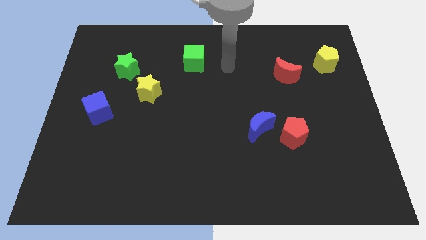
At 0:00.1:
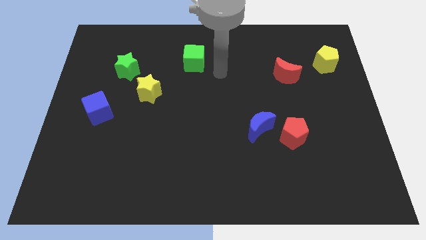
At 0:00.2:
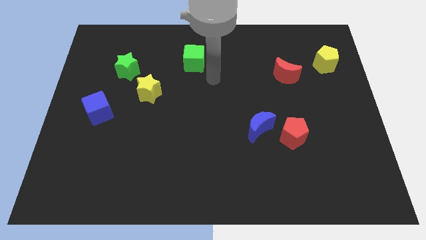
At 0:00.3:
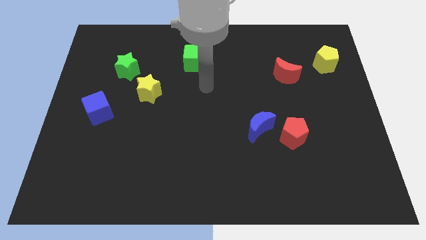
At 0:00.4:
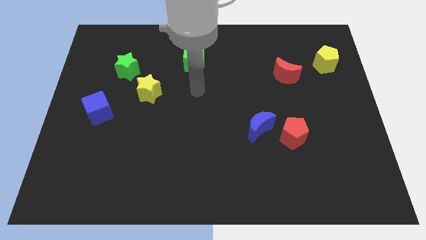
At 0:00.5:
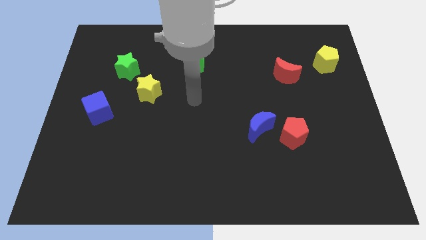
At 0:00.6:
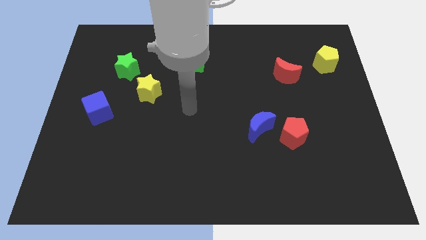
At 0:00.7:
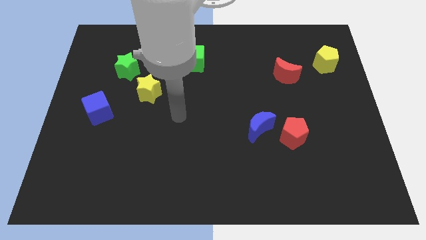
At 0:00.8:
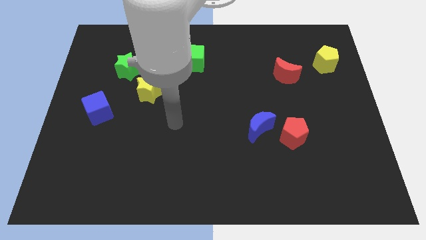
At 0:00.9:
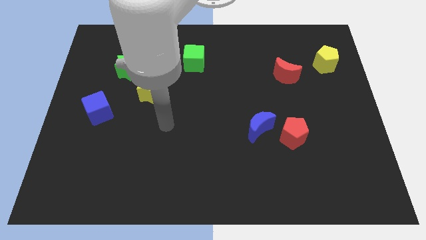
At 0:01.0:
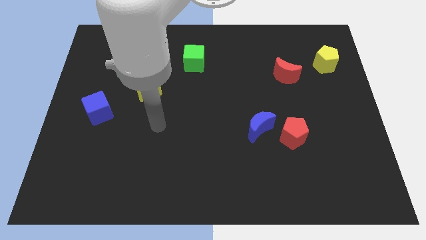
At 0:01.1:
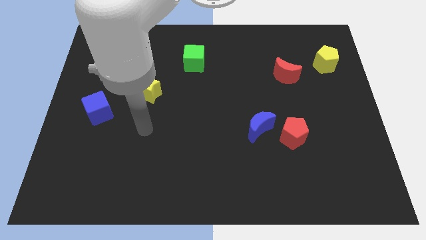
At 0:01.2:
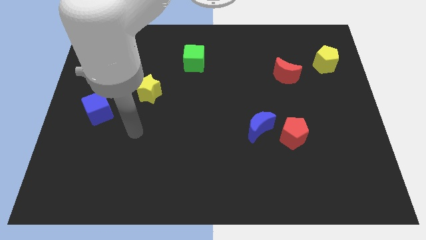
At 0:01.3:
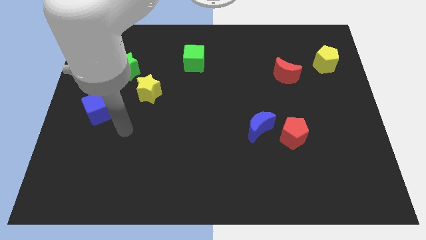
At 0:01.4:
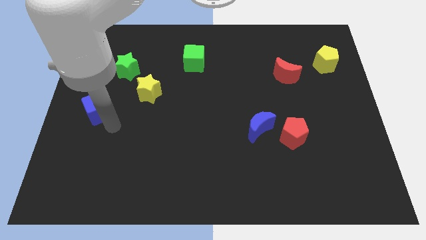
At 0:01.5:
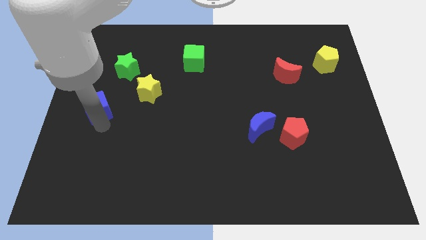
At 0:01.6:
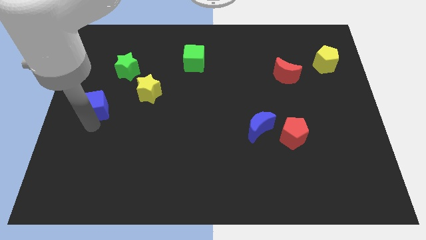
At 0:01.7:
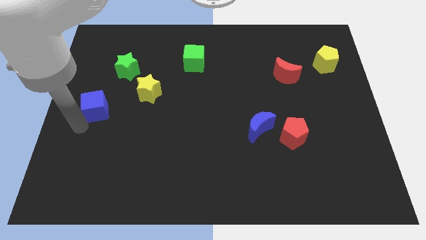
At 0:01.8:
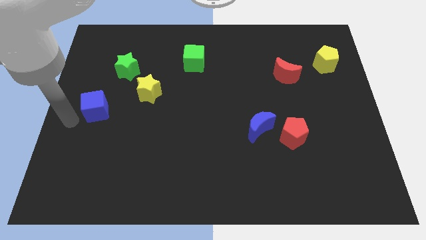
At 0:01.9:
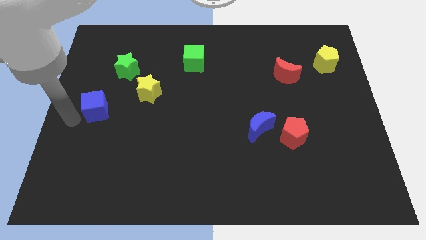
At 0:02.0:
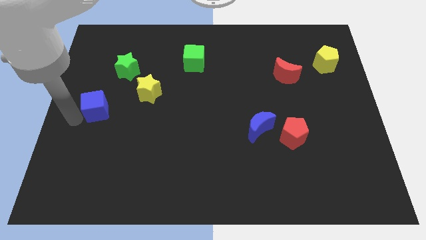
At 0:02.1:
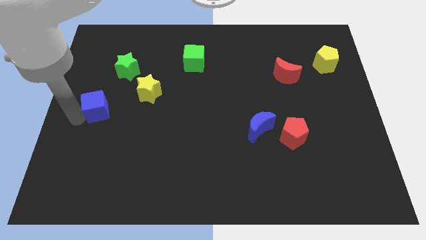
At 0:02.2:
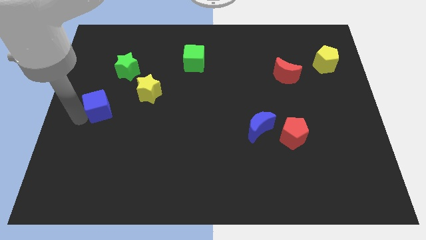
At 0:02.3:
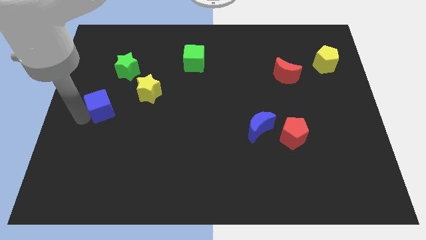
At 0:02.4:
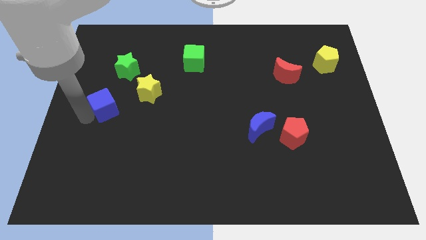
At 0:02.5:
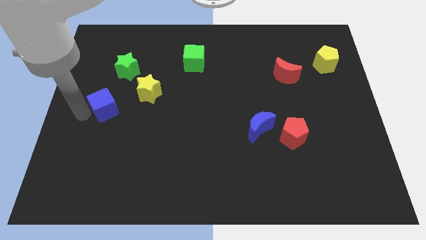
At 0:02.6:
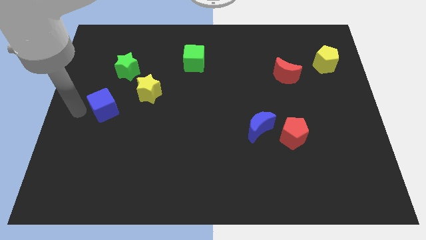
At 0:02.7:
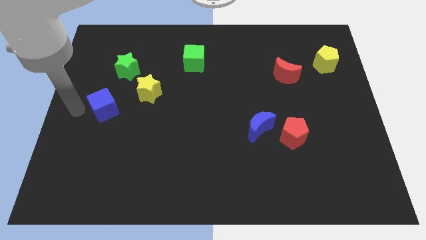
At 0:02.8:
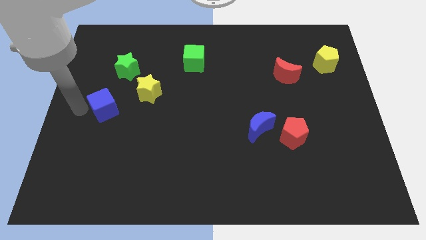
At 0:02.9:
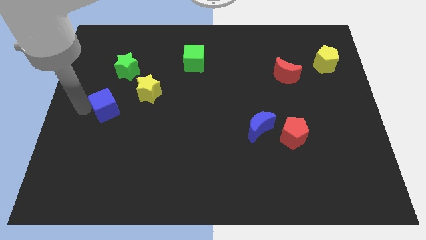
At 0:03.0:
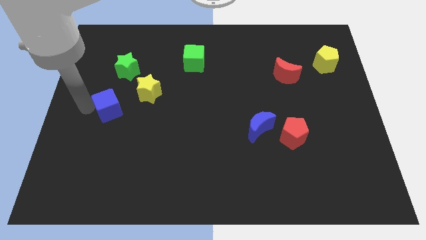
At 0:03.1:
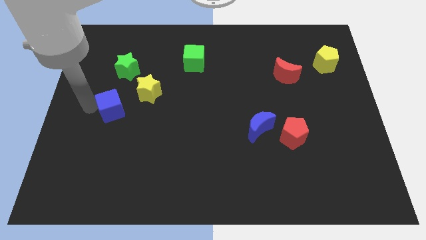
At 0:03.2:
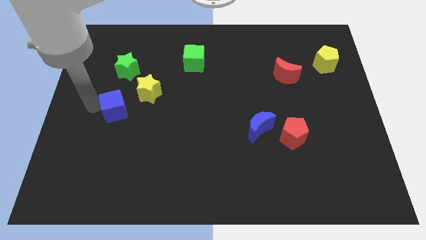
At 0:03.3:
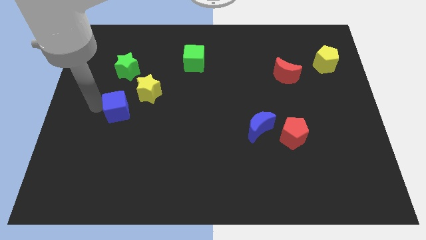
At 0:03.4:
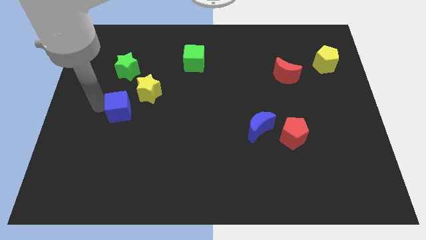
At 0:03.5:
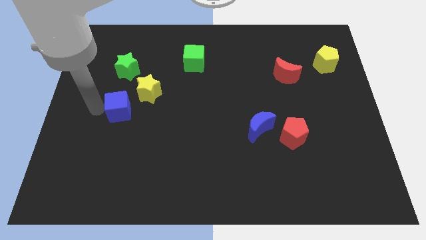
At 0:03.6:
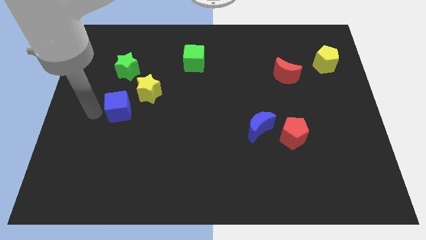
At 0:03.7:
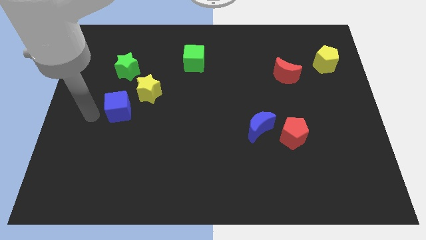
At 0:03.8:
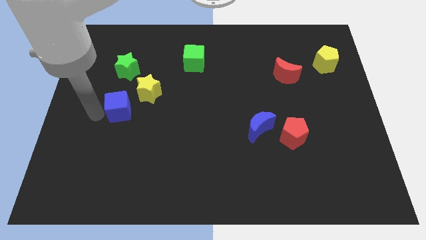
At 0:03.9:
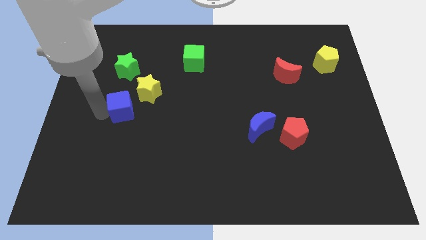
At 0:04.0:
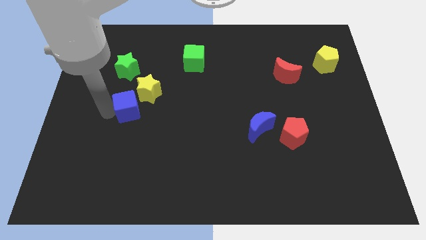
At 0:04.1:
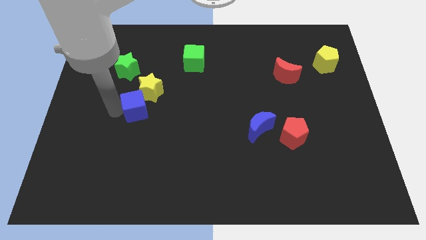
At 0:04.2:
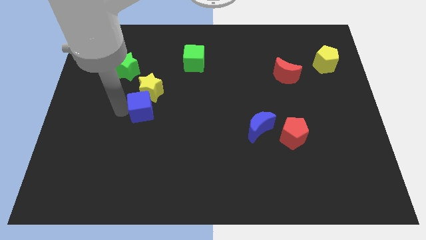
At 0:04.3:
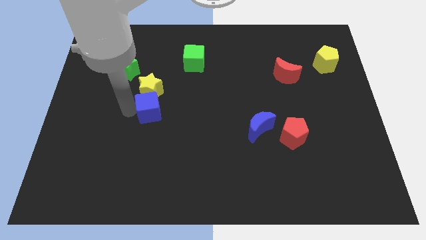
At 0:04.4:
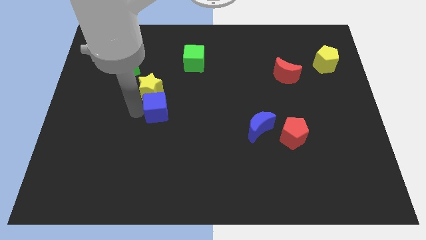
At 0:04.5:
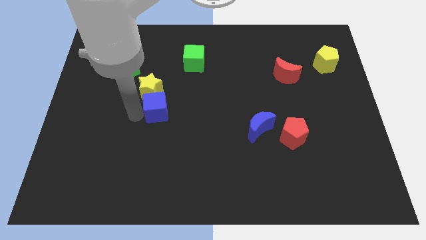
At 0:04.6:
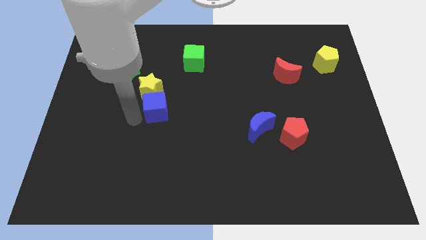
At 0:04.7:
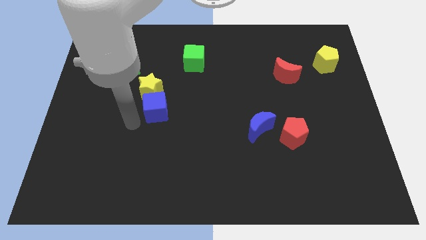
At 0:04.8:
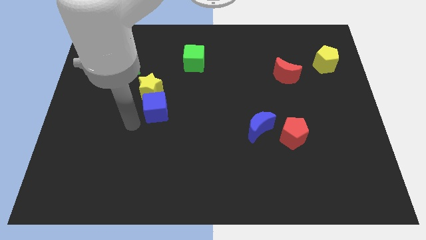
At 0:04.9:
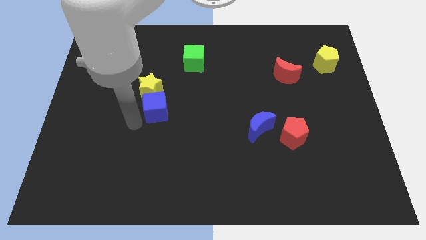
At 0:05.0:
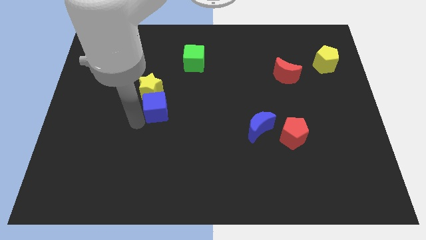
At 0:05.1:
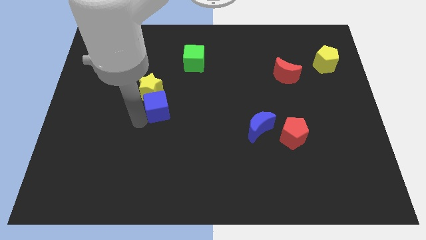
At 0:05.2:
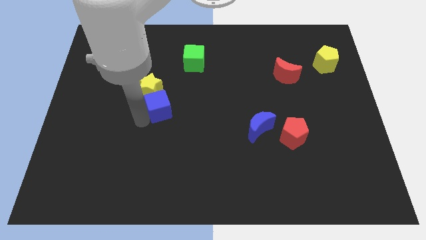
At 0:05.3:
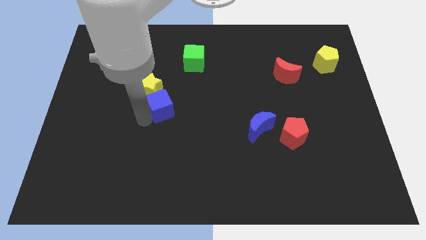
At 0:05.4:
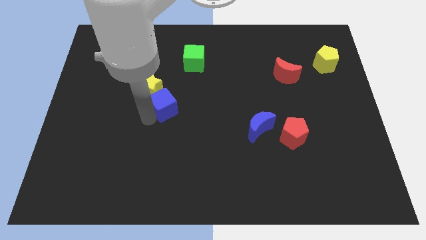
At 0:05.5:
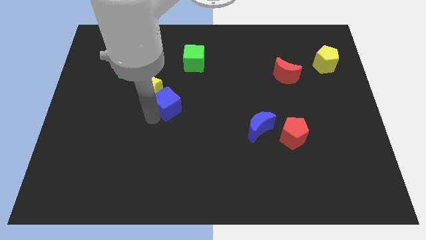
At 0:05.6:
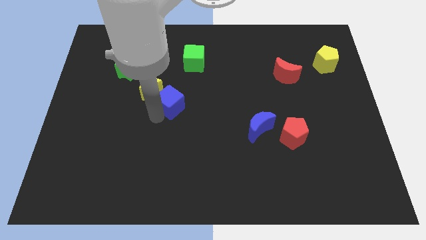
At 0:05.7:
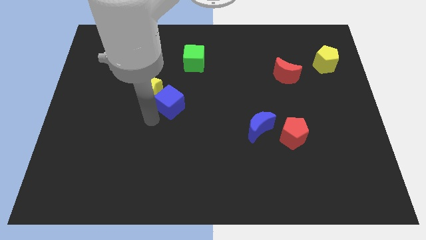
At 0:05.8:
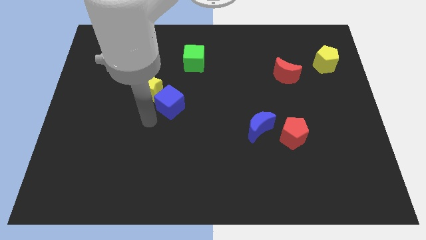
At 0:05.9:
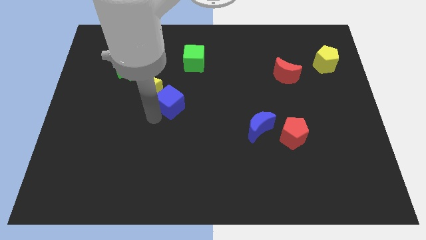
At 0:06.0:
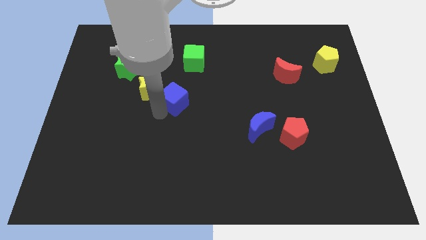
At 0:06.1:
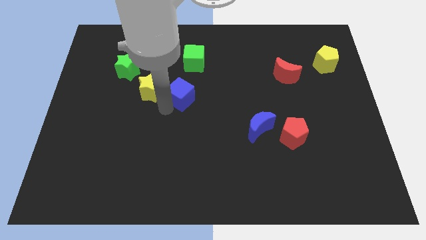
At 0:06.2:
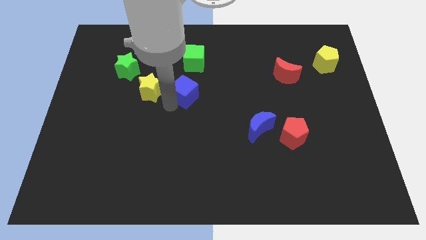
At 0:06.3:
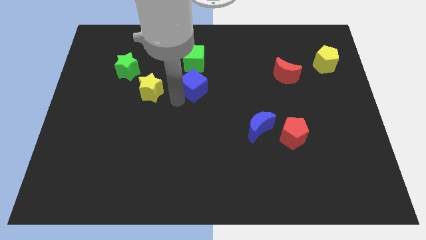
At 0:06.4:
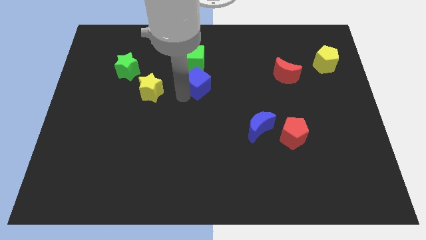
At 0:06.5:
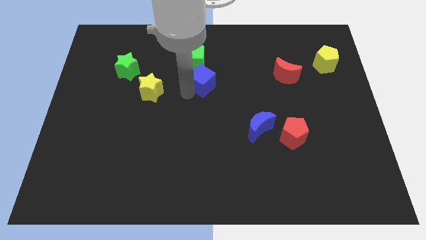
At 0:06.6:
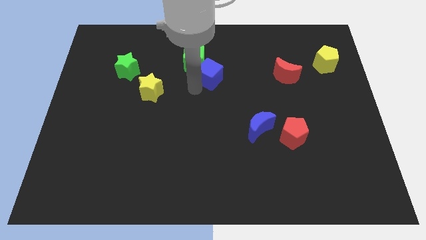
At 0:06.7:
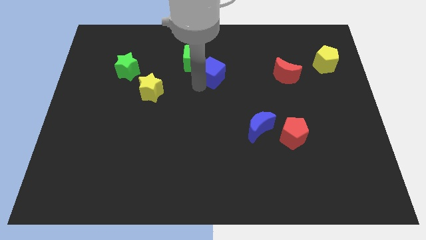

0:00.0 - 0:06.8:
put the blue cube to the right of the green cube

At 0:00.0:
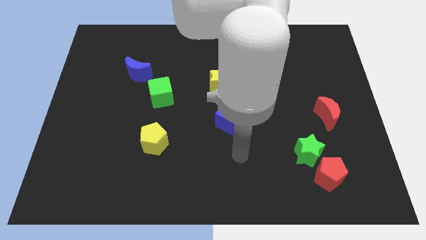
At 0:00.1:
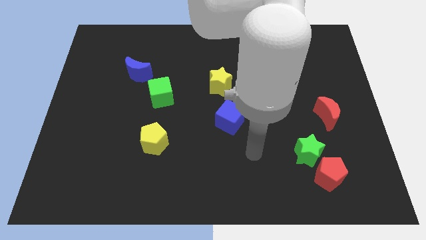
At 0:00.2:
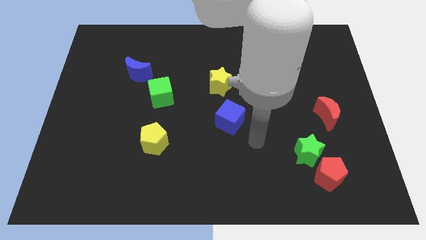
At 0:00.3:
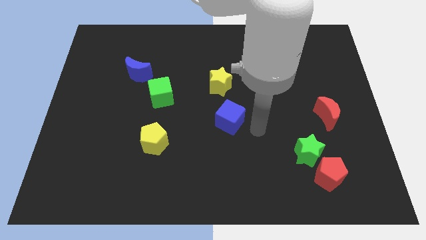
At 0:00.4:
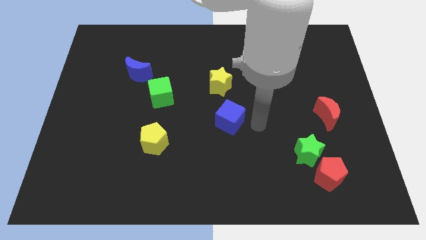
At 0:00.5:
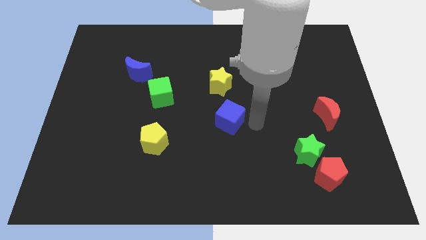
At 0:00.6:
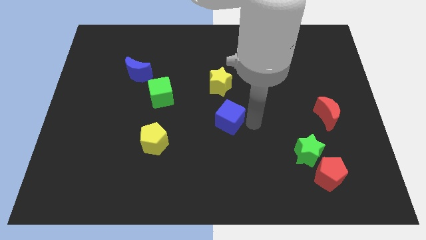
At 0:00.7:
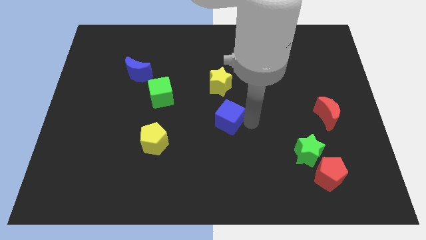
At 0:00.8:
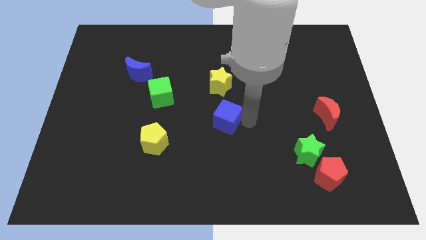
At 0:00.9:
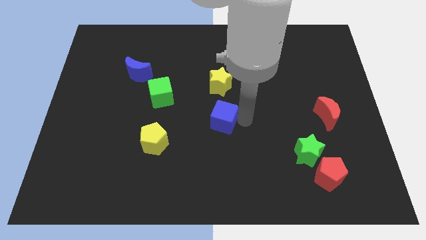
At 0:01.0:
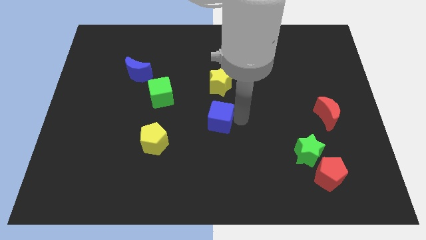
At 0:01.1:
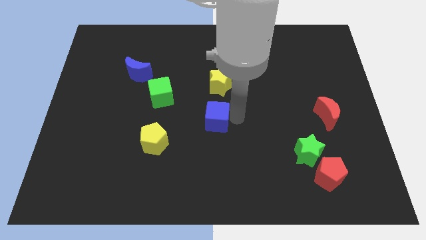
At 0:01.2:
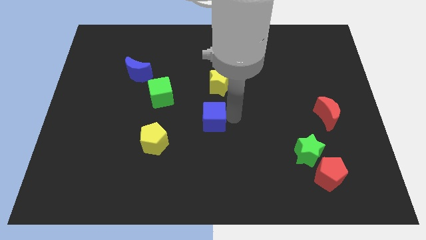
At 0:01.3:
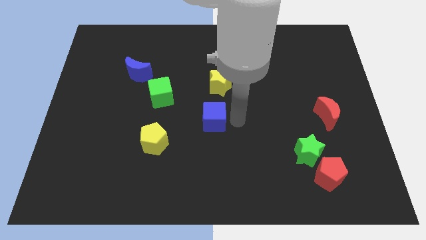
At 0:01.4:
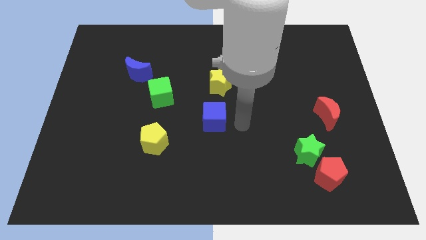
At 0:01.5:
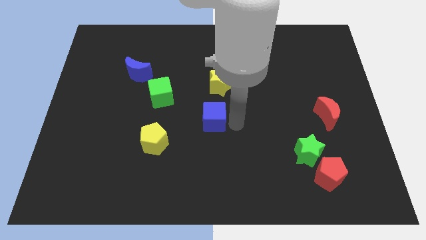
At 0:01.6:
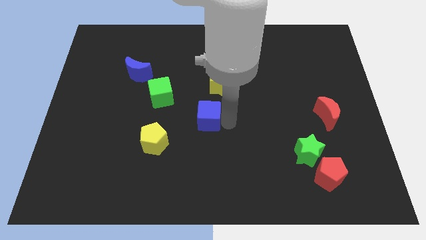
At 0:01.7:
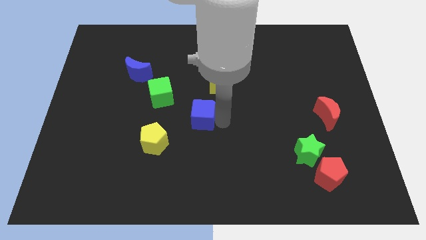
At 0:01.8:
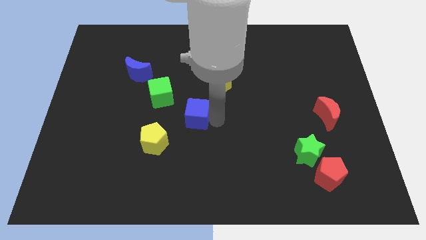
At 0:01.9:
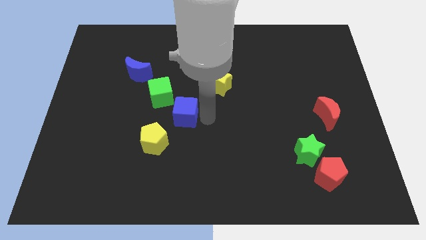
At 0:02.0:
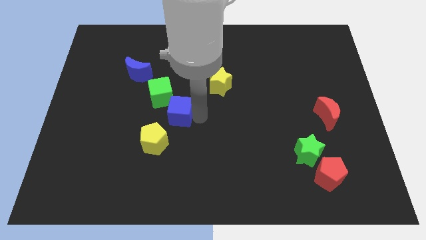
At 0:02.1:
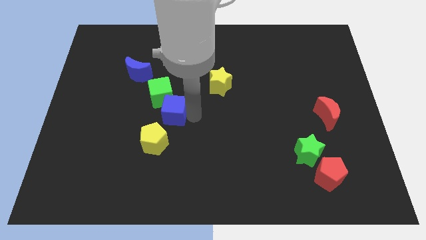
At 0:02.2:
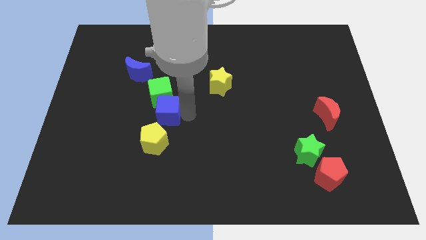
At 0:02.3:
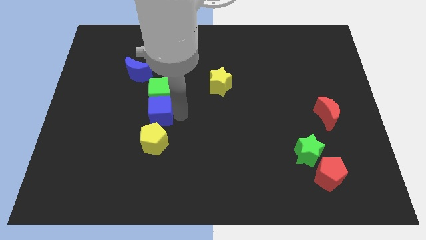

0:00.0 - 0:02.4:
slide the blue cube diagonally down and to the left of the green cube
